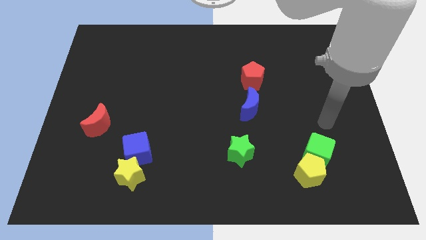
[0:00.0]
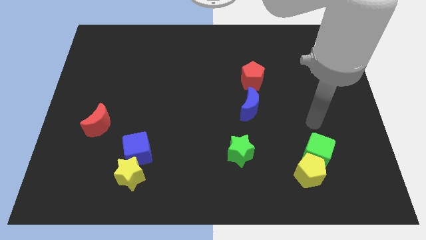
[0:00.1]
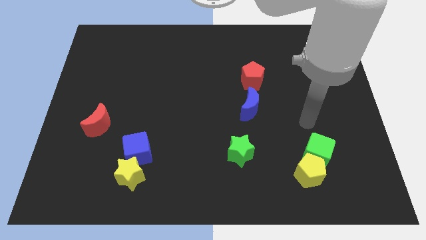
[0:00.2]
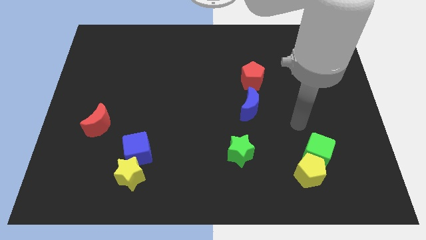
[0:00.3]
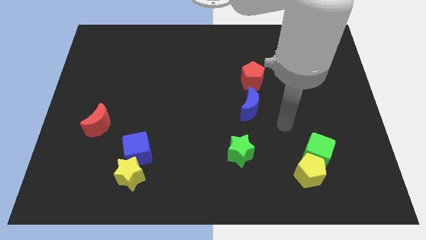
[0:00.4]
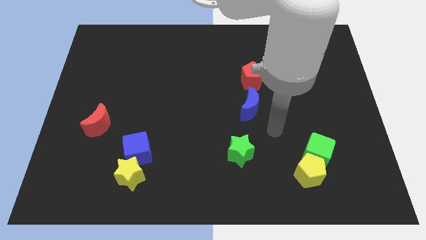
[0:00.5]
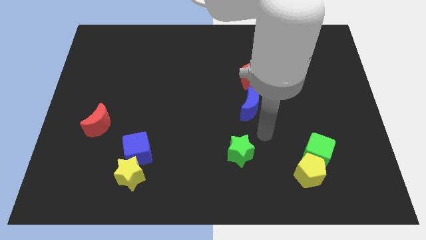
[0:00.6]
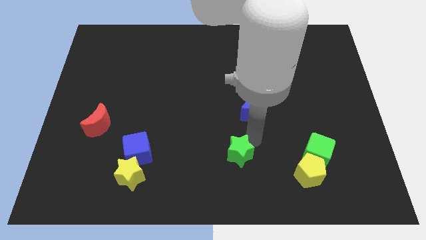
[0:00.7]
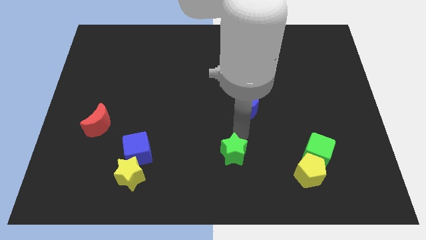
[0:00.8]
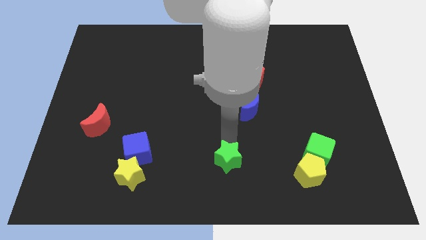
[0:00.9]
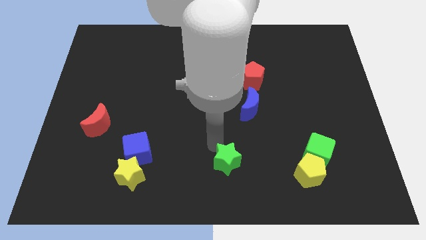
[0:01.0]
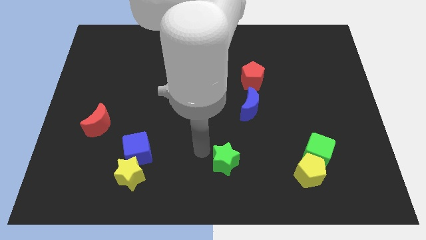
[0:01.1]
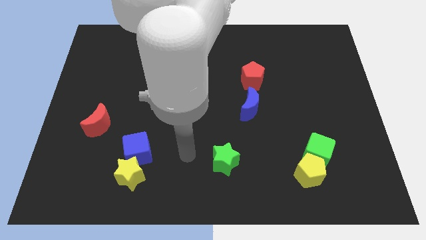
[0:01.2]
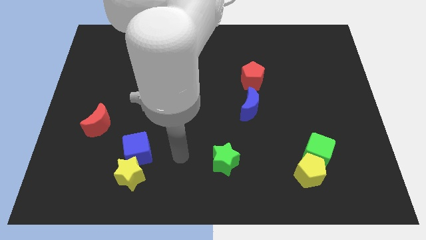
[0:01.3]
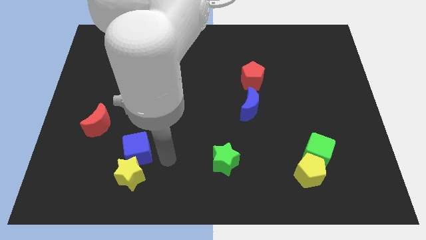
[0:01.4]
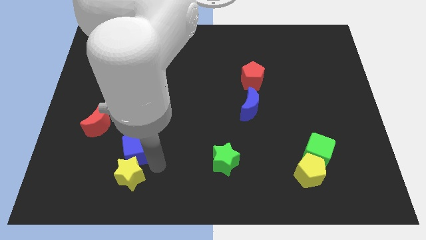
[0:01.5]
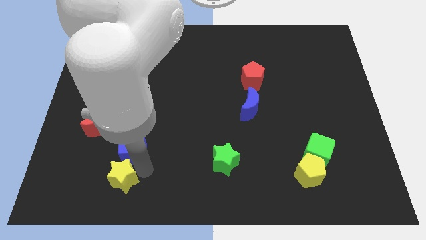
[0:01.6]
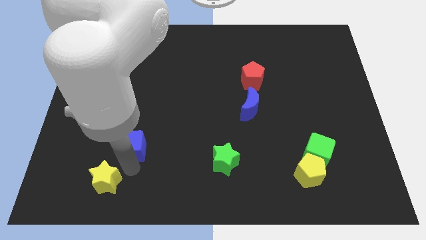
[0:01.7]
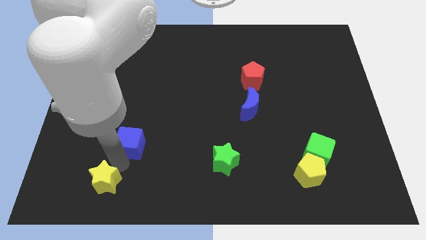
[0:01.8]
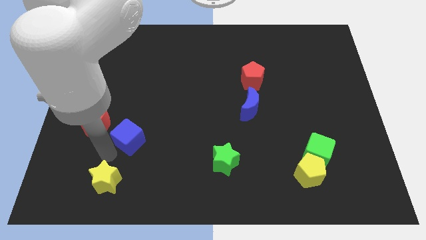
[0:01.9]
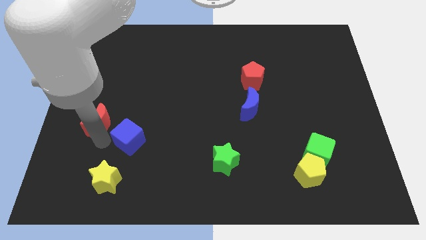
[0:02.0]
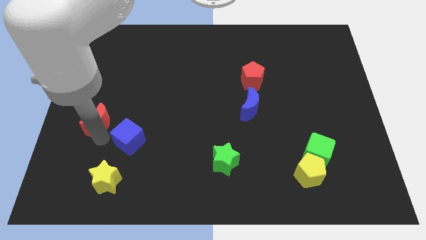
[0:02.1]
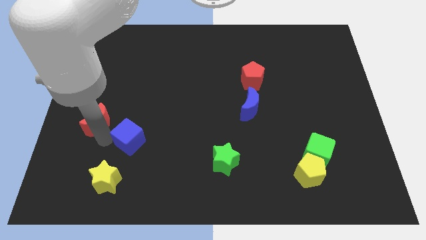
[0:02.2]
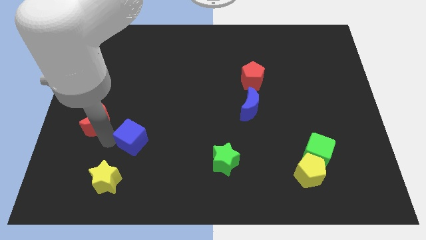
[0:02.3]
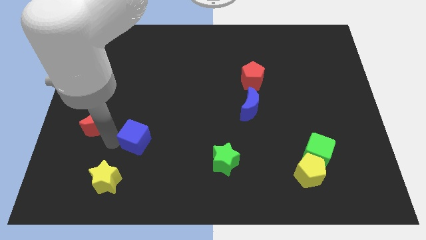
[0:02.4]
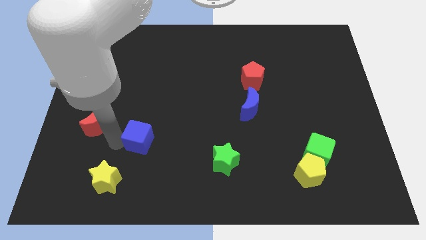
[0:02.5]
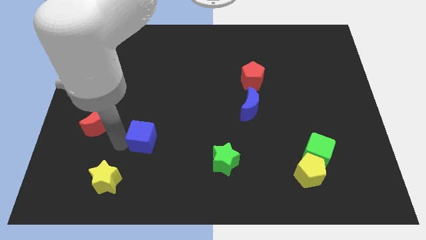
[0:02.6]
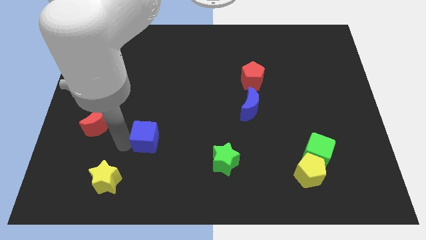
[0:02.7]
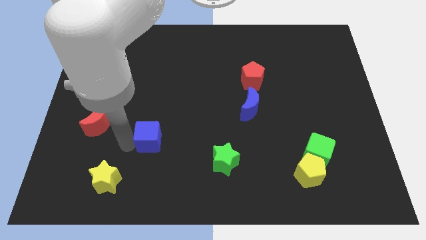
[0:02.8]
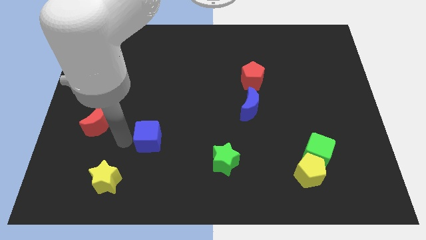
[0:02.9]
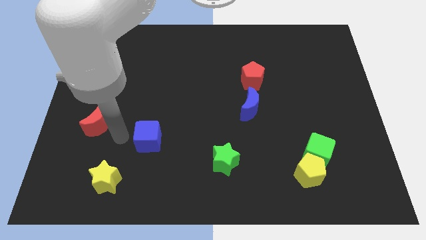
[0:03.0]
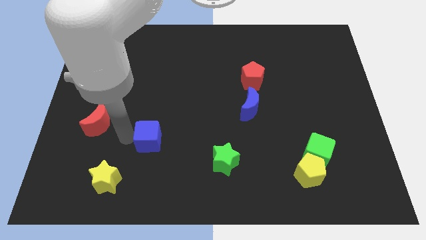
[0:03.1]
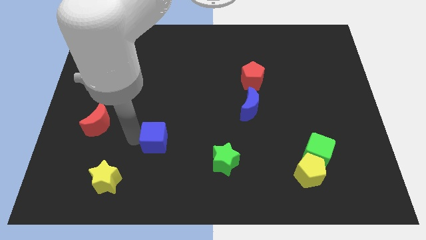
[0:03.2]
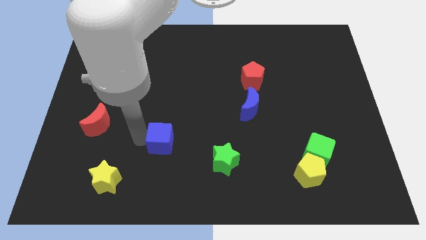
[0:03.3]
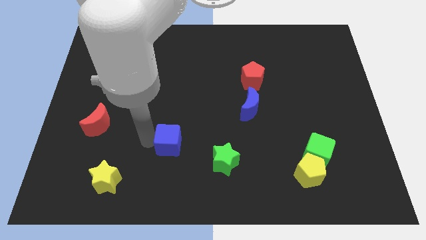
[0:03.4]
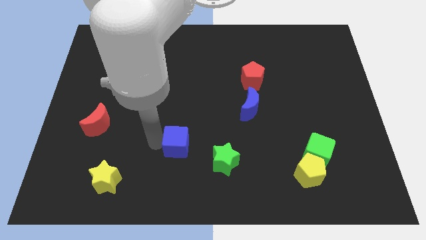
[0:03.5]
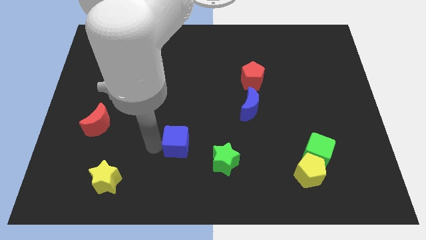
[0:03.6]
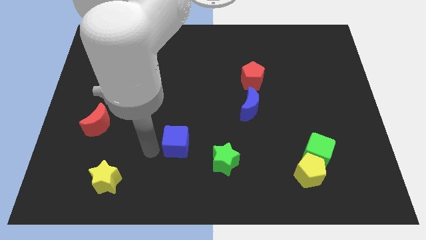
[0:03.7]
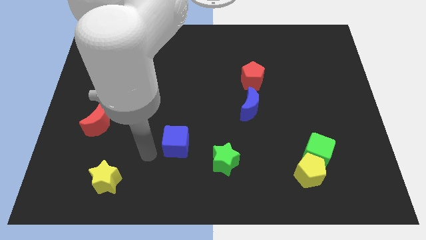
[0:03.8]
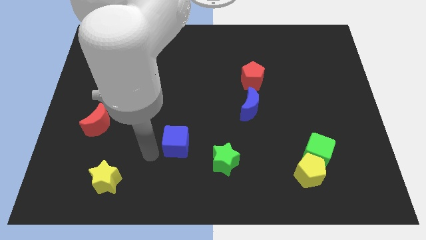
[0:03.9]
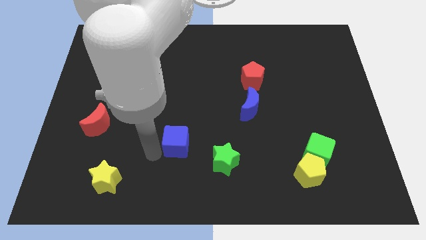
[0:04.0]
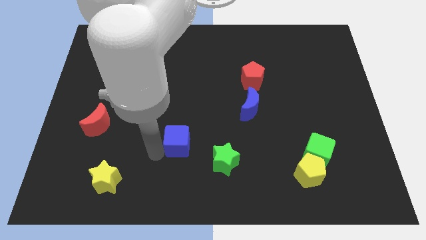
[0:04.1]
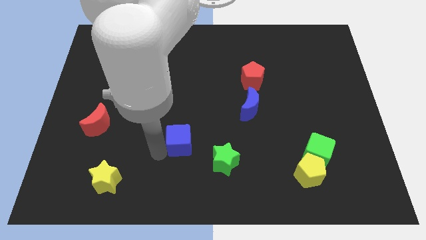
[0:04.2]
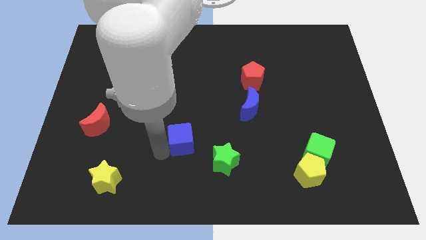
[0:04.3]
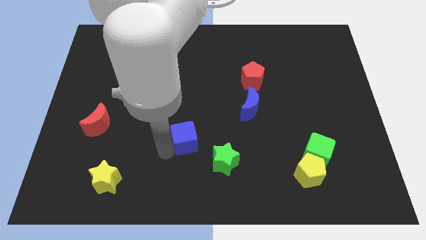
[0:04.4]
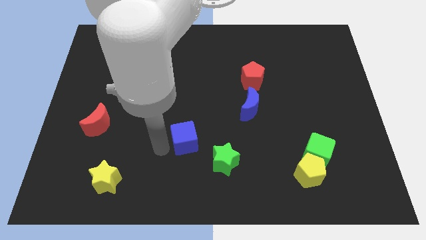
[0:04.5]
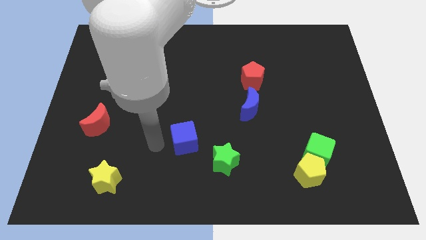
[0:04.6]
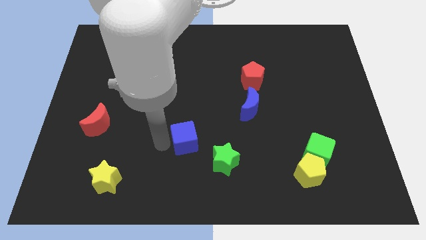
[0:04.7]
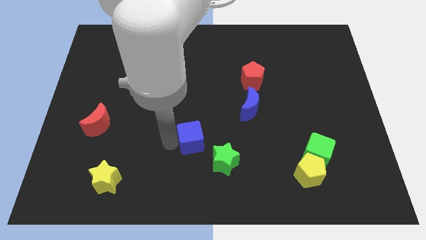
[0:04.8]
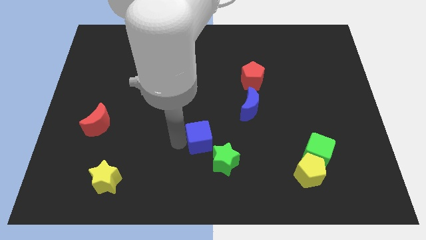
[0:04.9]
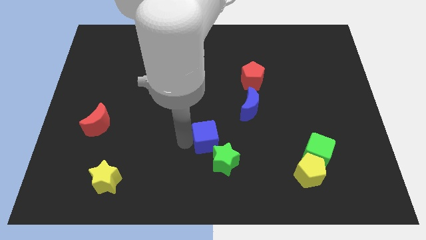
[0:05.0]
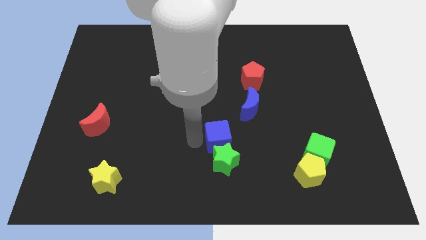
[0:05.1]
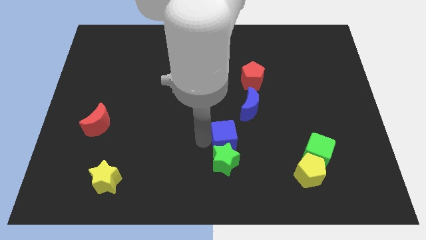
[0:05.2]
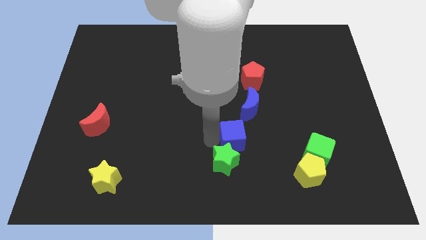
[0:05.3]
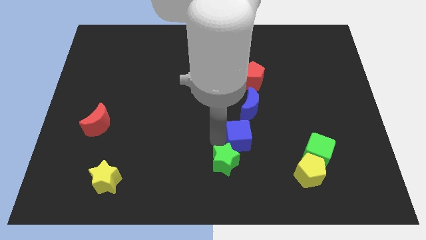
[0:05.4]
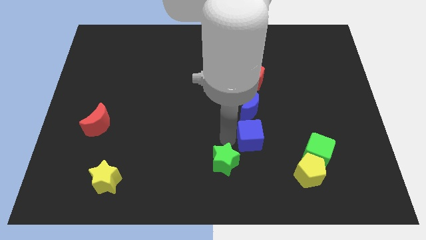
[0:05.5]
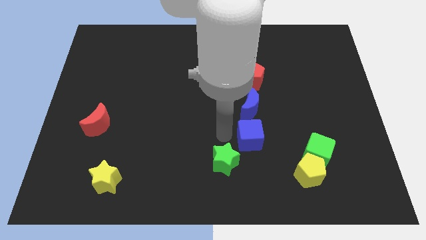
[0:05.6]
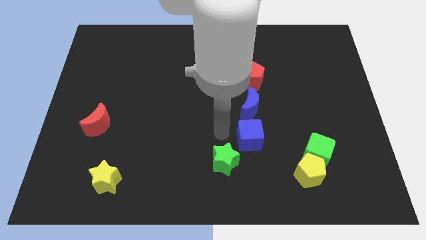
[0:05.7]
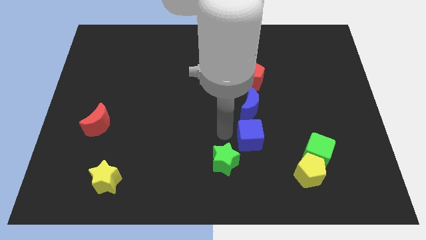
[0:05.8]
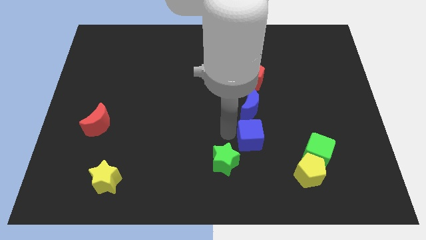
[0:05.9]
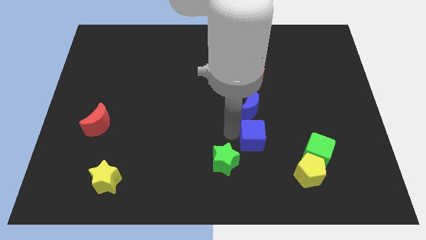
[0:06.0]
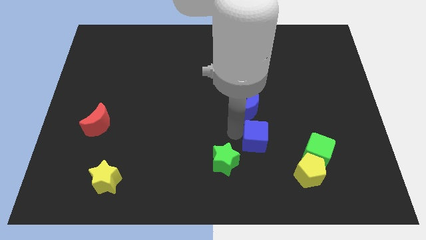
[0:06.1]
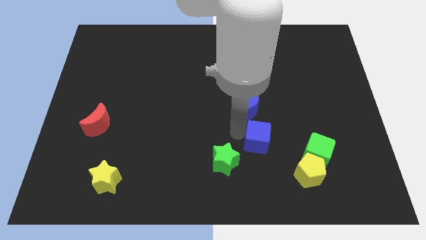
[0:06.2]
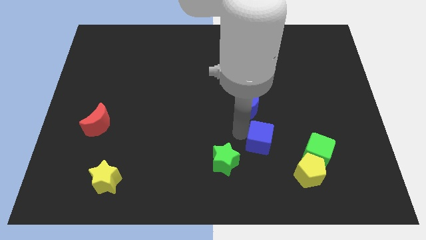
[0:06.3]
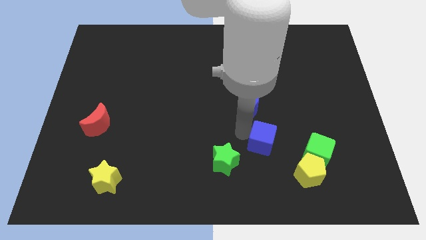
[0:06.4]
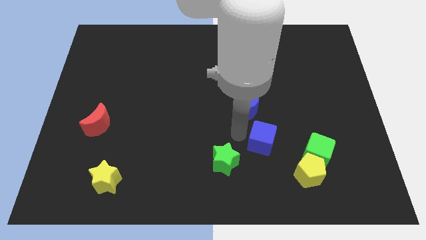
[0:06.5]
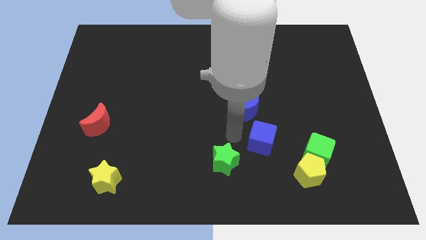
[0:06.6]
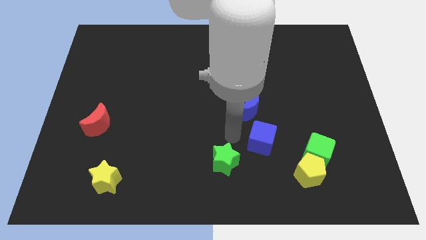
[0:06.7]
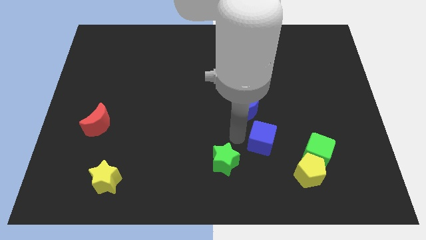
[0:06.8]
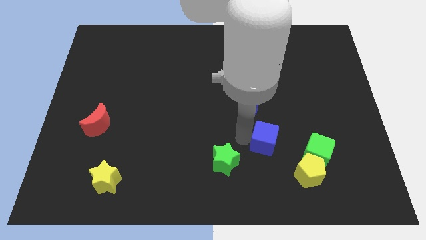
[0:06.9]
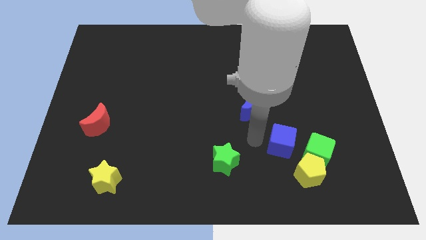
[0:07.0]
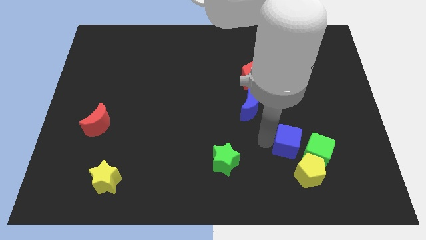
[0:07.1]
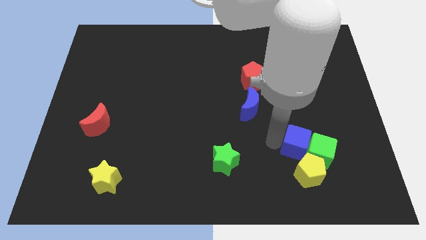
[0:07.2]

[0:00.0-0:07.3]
slide the blue cube to the green cube

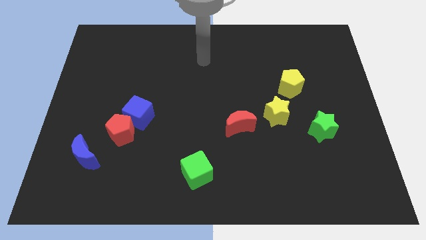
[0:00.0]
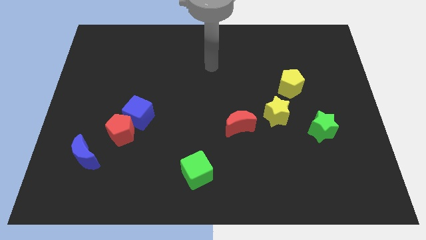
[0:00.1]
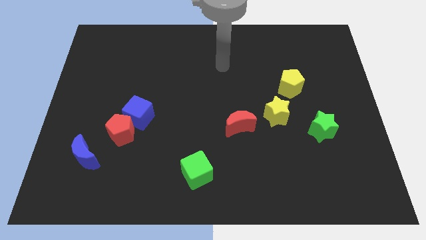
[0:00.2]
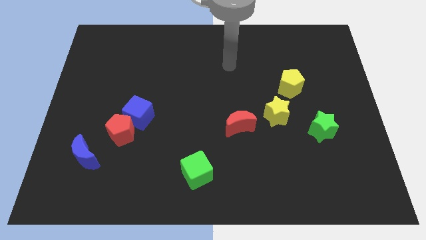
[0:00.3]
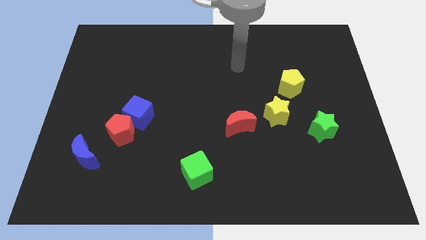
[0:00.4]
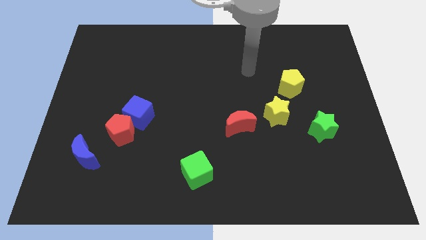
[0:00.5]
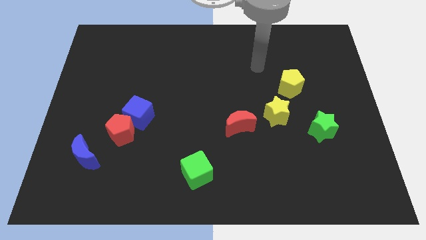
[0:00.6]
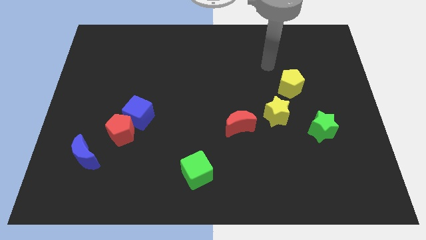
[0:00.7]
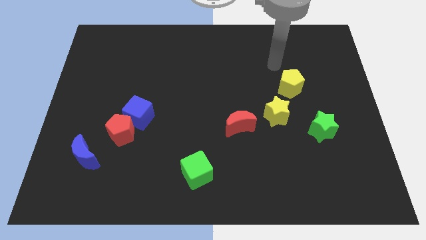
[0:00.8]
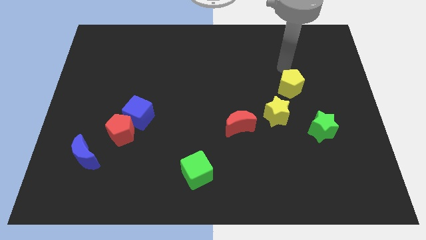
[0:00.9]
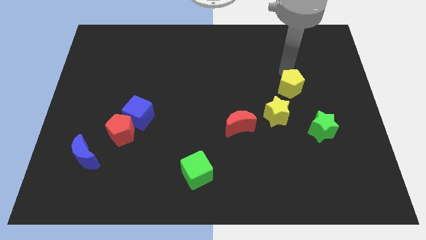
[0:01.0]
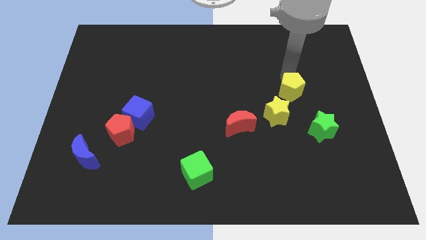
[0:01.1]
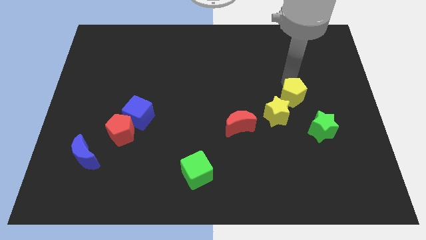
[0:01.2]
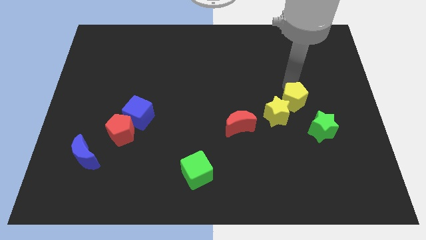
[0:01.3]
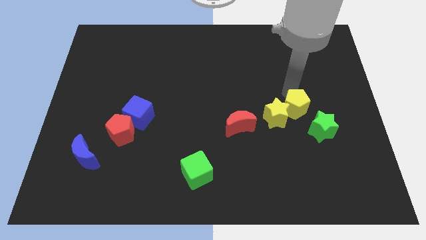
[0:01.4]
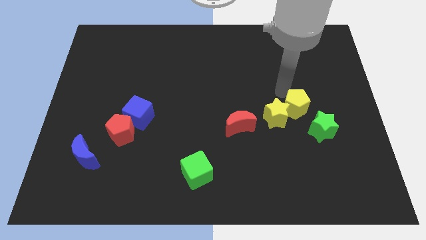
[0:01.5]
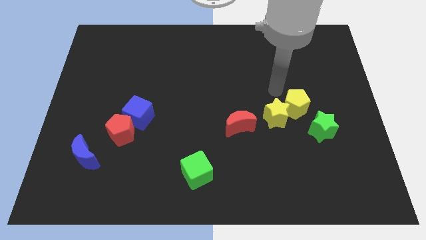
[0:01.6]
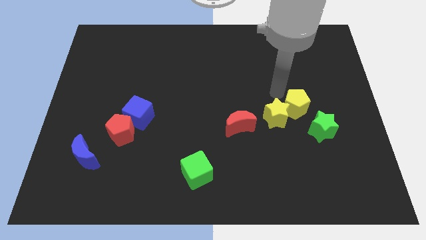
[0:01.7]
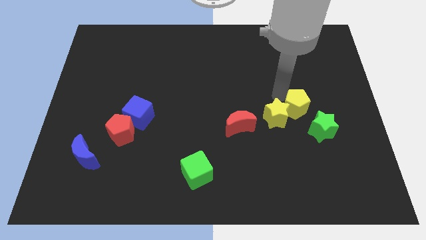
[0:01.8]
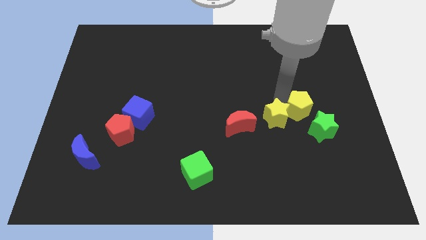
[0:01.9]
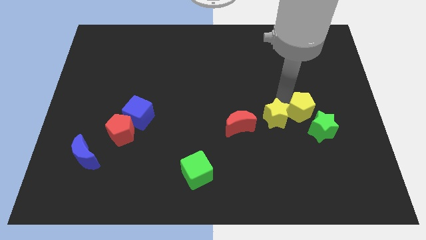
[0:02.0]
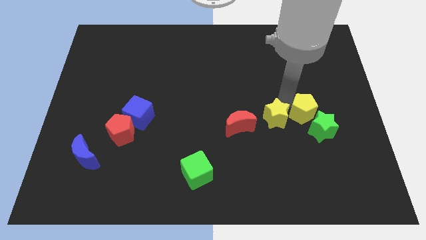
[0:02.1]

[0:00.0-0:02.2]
push the yellow pentagon to the green star
